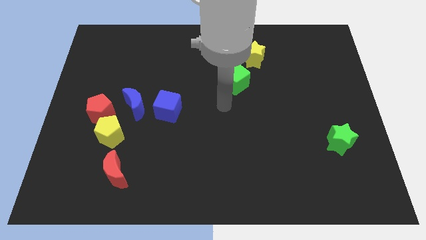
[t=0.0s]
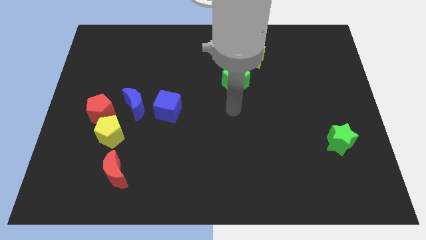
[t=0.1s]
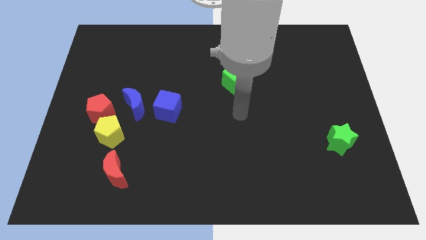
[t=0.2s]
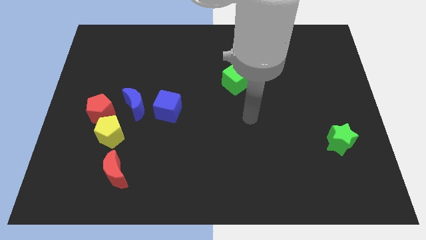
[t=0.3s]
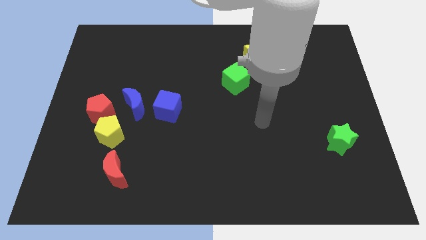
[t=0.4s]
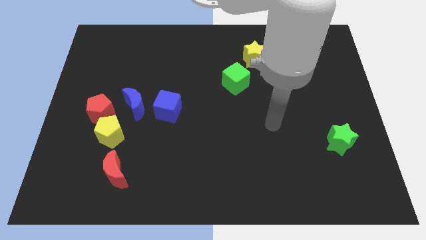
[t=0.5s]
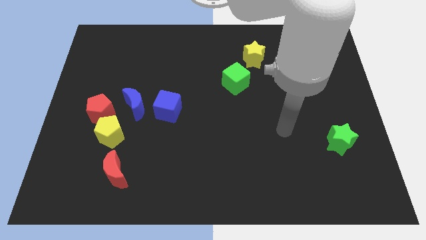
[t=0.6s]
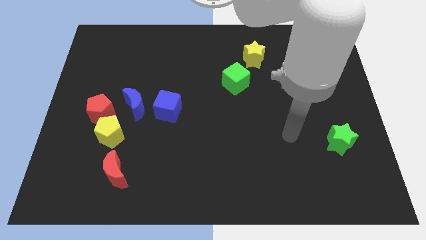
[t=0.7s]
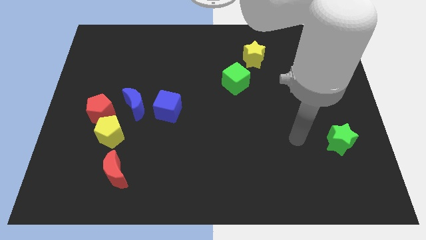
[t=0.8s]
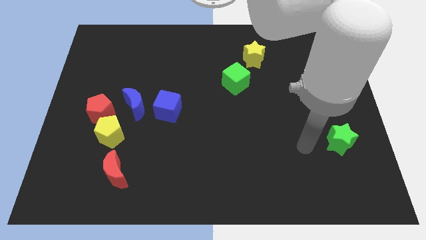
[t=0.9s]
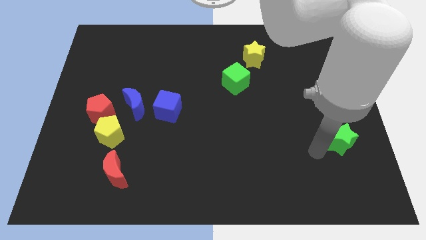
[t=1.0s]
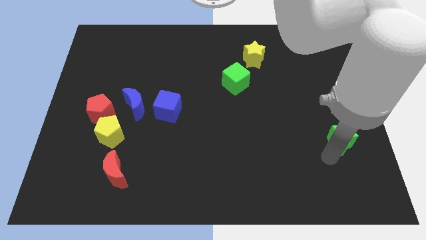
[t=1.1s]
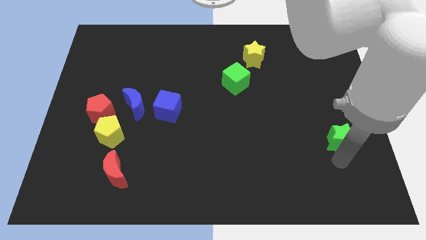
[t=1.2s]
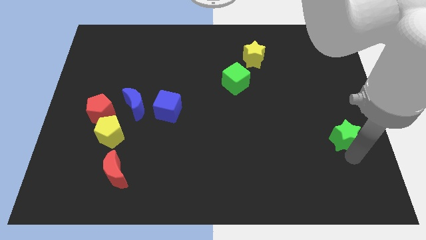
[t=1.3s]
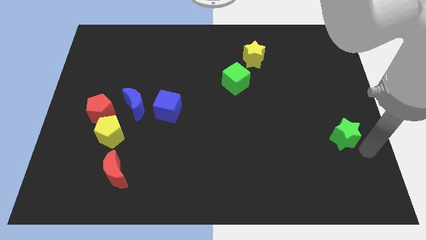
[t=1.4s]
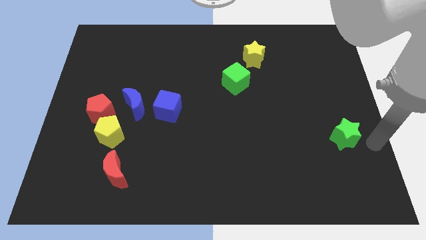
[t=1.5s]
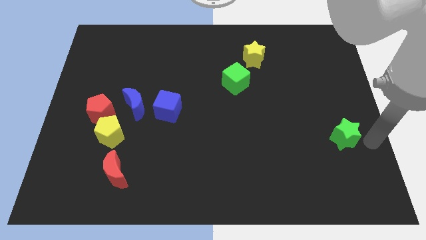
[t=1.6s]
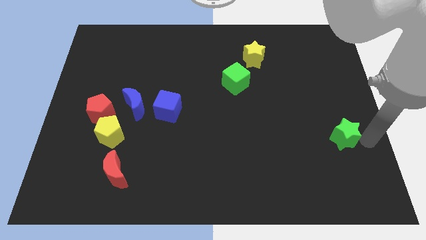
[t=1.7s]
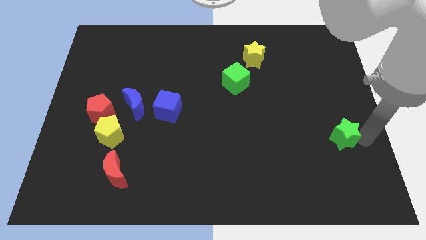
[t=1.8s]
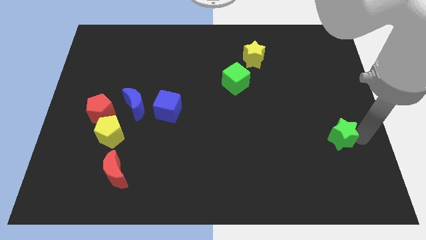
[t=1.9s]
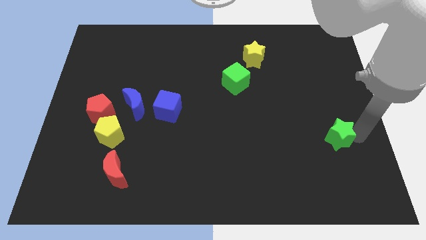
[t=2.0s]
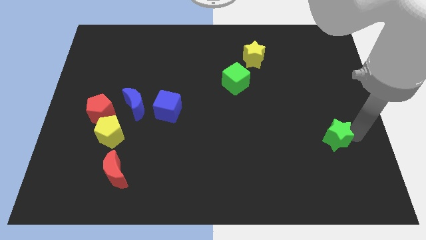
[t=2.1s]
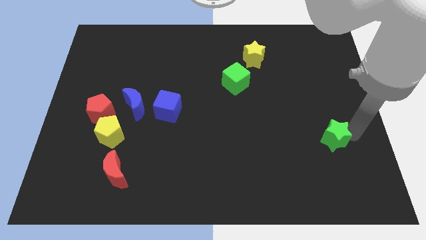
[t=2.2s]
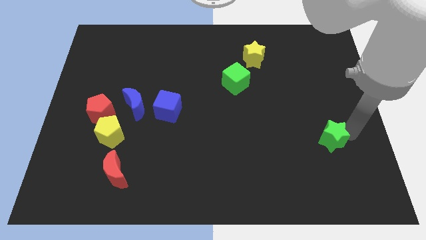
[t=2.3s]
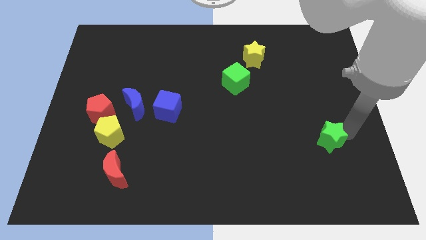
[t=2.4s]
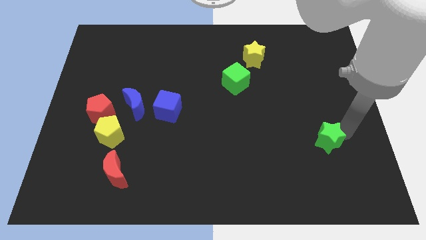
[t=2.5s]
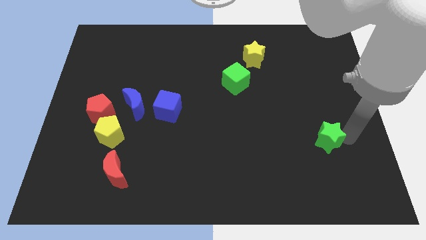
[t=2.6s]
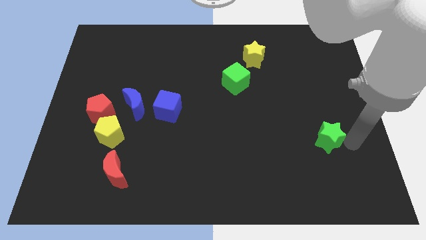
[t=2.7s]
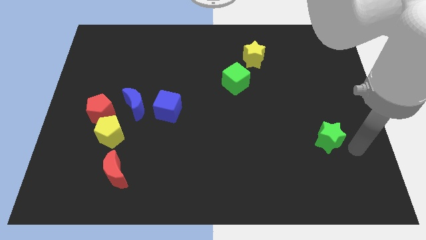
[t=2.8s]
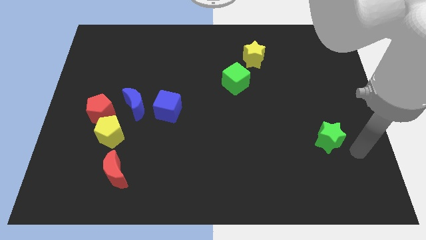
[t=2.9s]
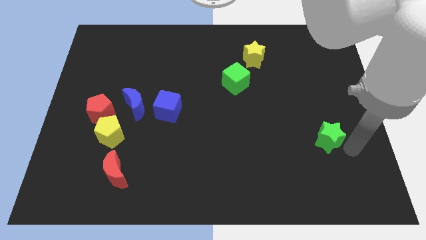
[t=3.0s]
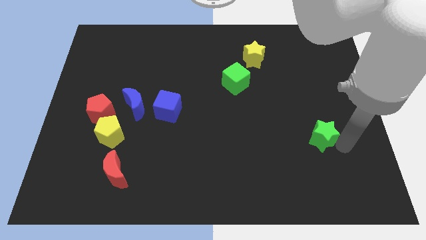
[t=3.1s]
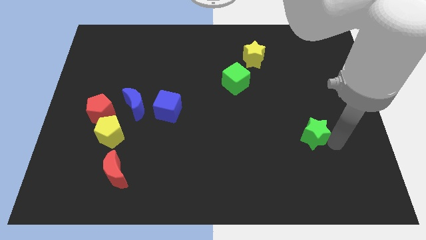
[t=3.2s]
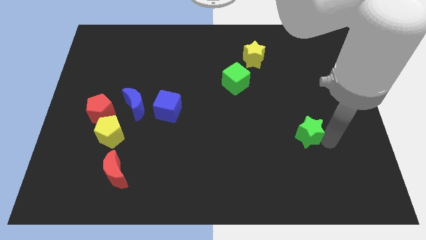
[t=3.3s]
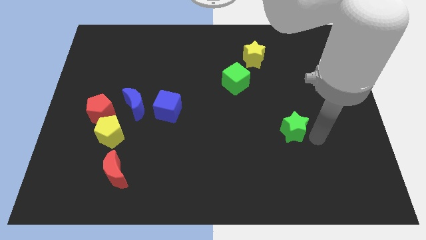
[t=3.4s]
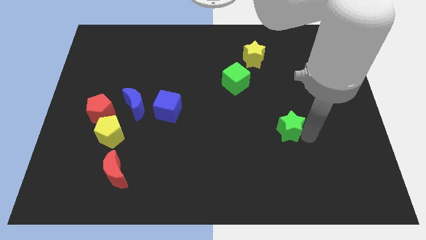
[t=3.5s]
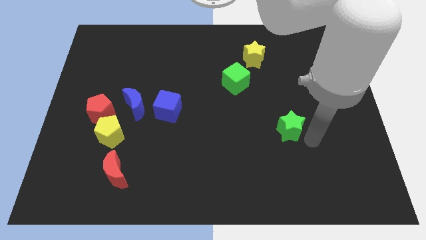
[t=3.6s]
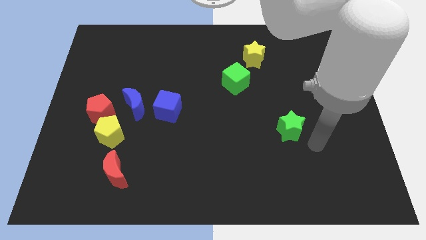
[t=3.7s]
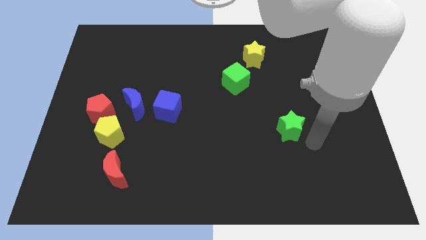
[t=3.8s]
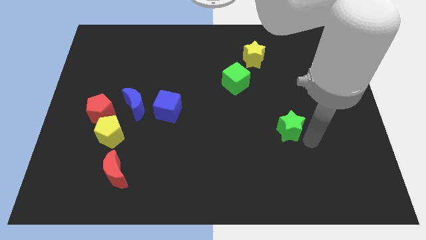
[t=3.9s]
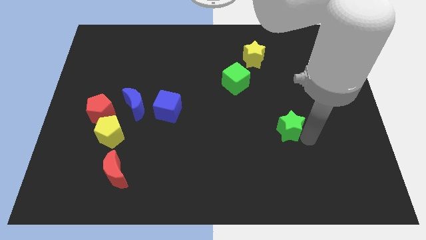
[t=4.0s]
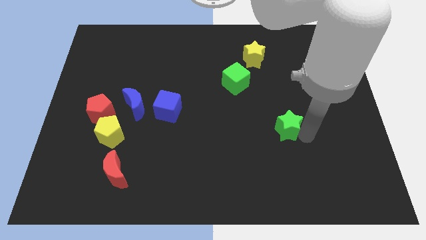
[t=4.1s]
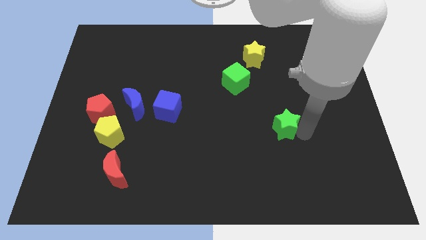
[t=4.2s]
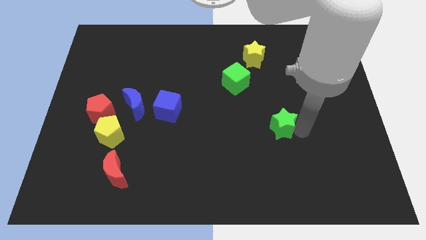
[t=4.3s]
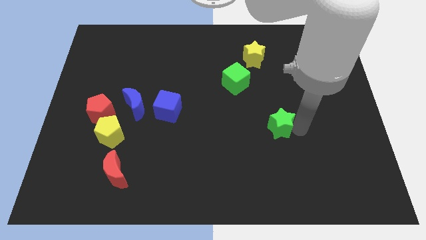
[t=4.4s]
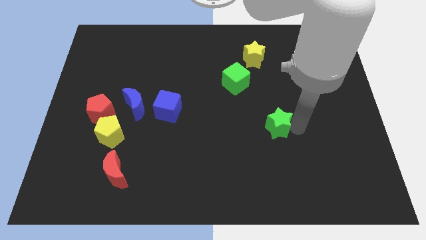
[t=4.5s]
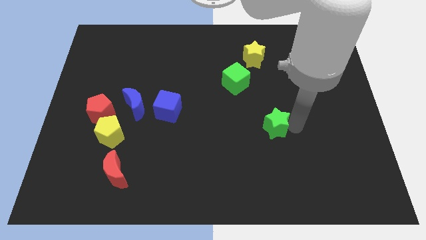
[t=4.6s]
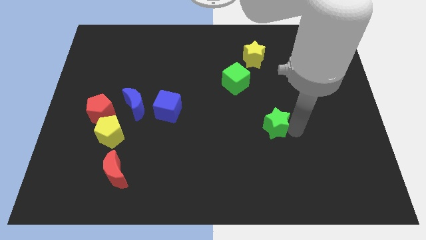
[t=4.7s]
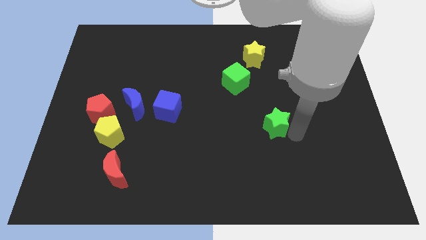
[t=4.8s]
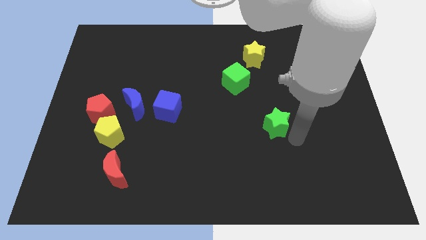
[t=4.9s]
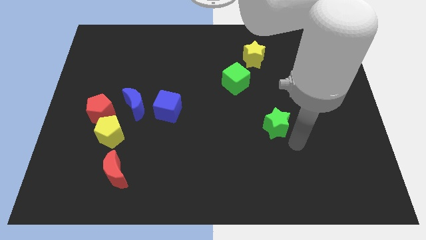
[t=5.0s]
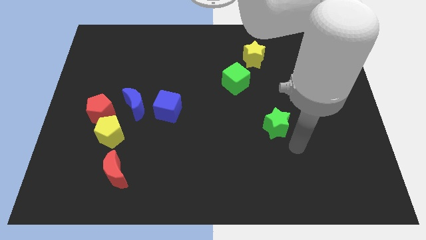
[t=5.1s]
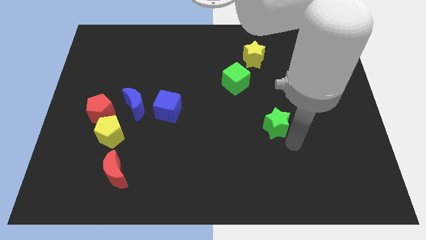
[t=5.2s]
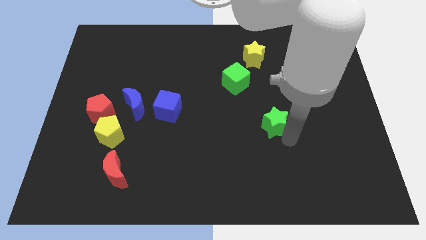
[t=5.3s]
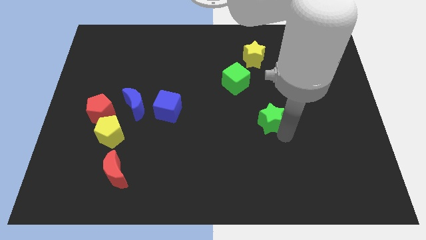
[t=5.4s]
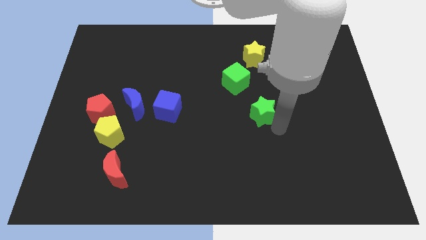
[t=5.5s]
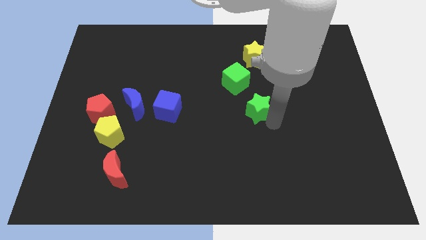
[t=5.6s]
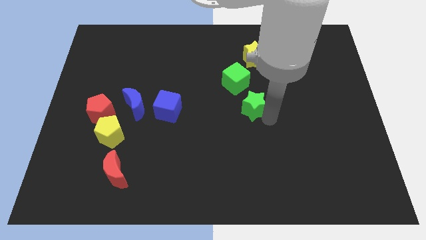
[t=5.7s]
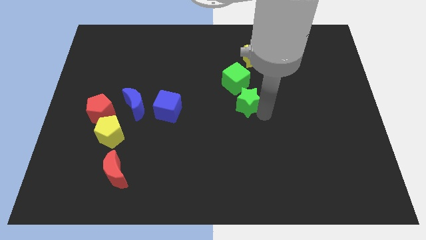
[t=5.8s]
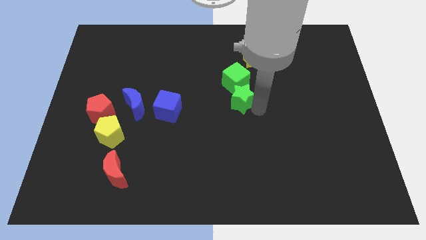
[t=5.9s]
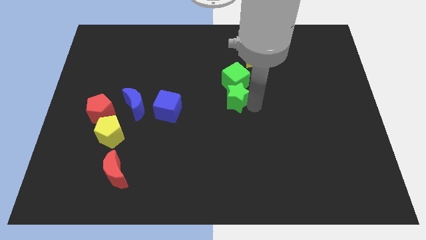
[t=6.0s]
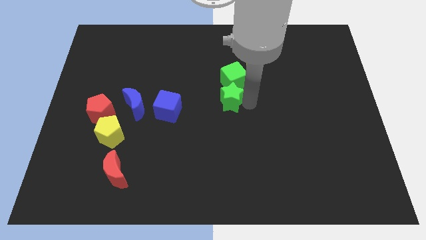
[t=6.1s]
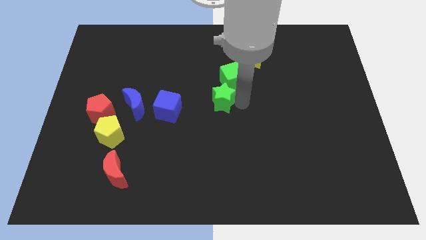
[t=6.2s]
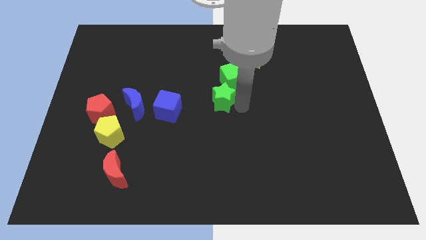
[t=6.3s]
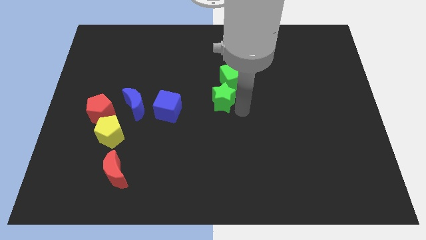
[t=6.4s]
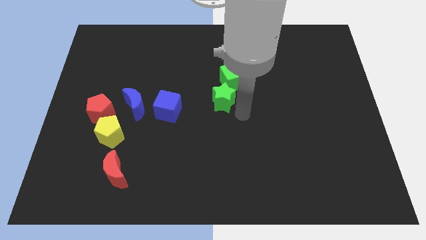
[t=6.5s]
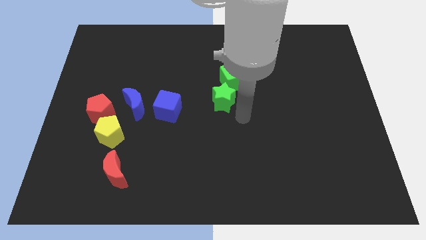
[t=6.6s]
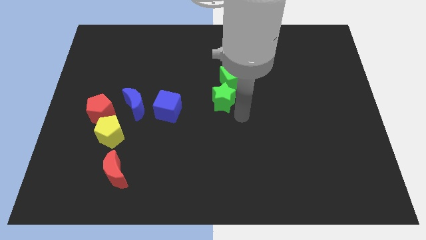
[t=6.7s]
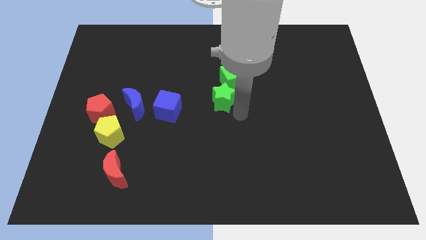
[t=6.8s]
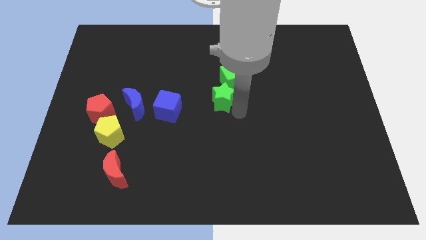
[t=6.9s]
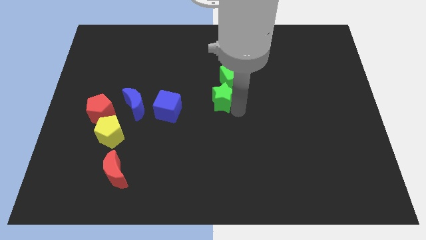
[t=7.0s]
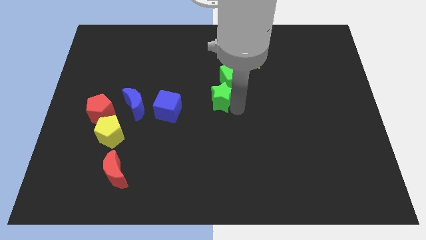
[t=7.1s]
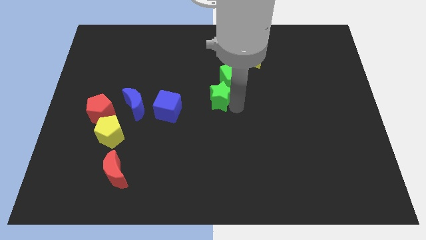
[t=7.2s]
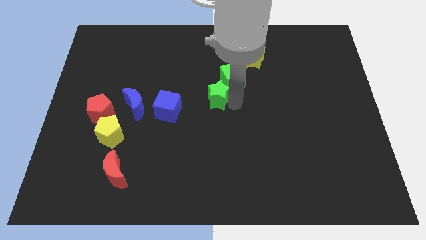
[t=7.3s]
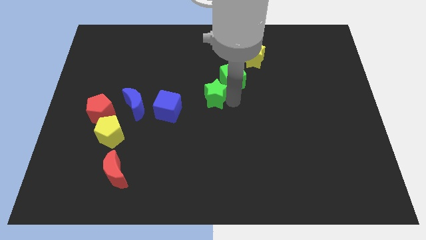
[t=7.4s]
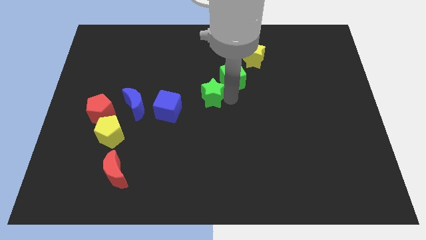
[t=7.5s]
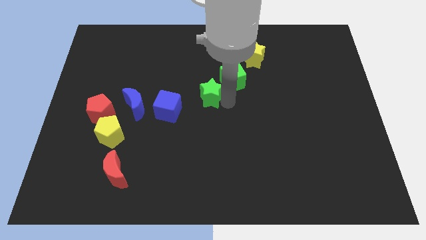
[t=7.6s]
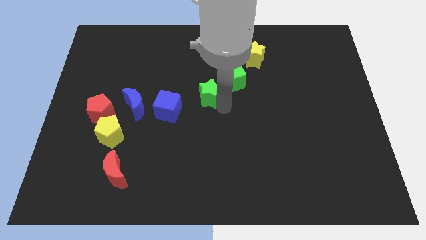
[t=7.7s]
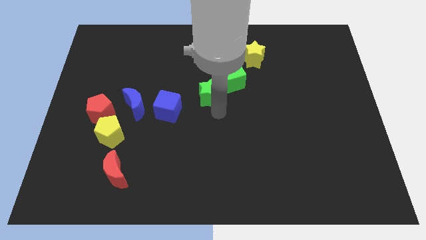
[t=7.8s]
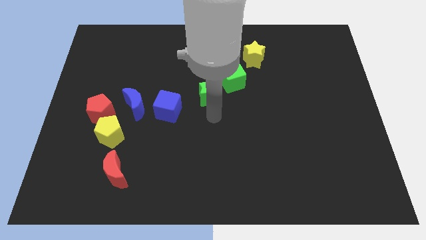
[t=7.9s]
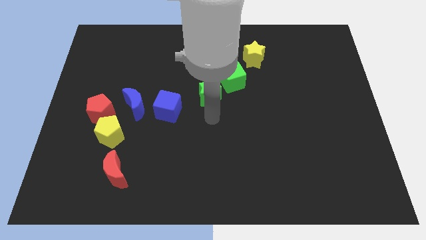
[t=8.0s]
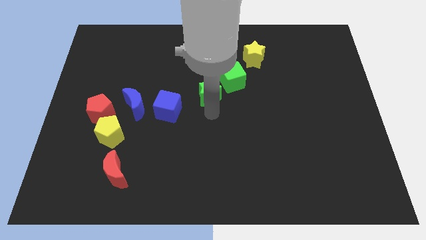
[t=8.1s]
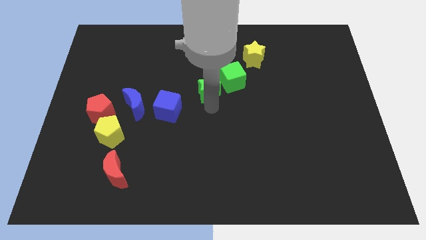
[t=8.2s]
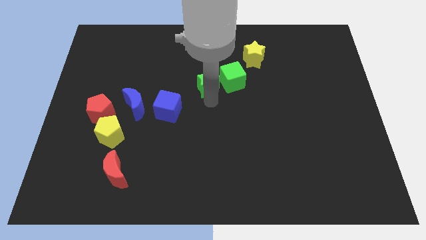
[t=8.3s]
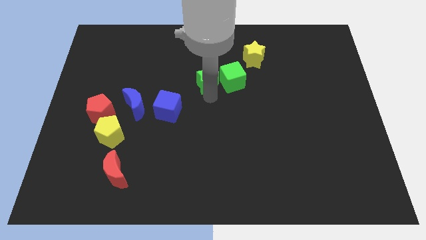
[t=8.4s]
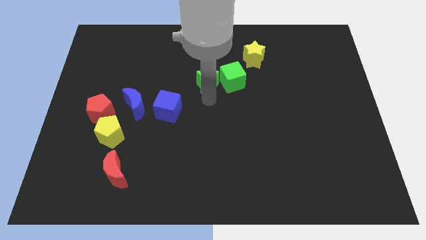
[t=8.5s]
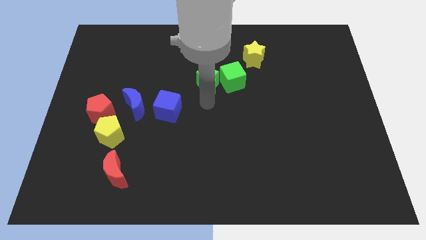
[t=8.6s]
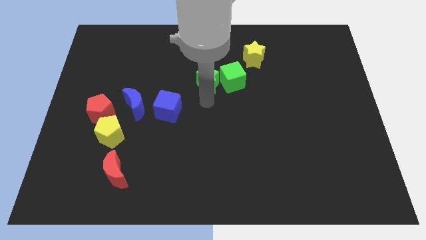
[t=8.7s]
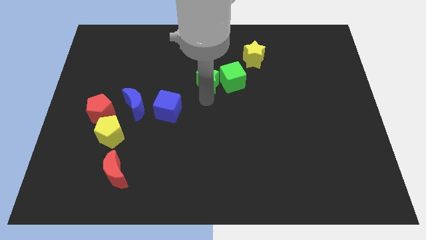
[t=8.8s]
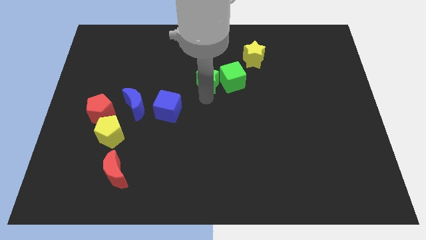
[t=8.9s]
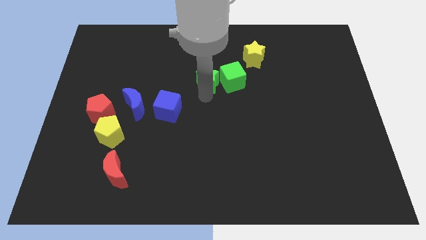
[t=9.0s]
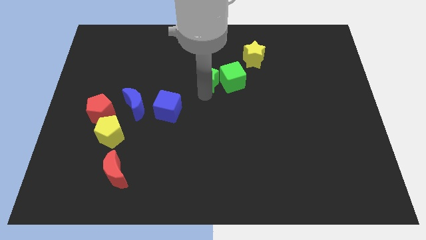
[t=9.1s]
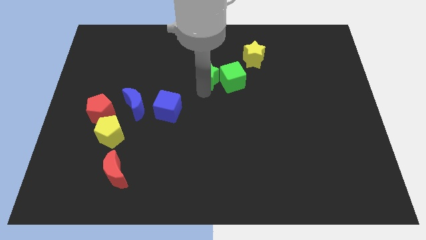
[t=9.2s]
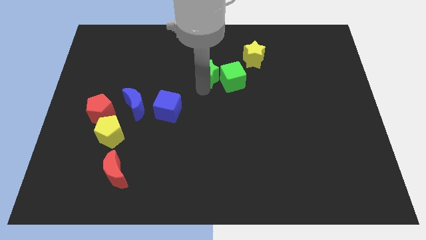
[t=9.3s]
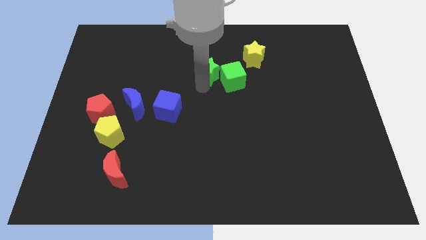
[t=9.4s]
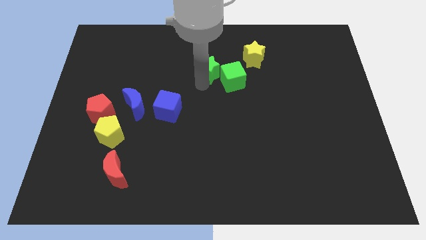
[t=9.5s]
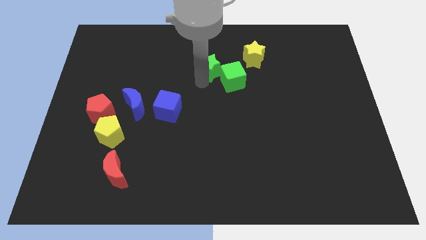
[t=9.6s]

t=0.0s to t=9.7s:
slide the green star just left of the yellow star
